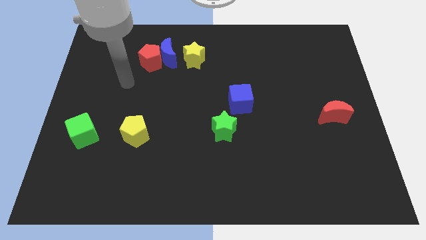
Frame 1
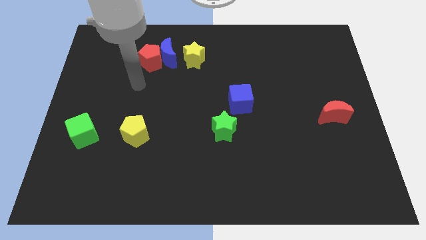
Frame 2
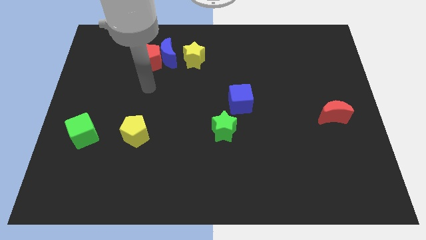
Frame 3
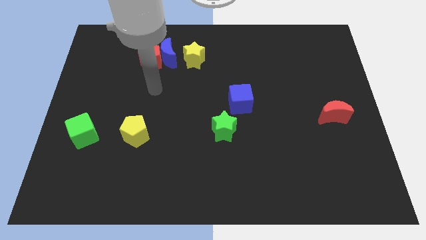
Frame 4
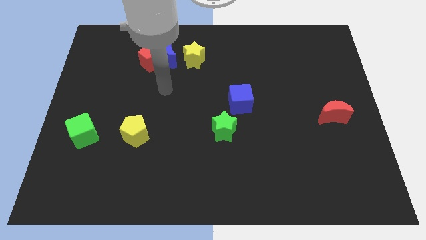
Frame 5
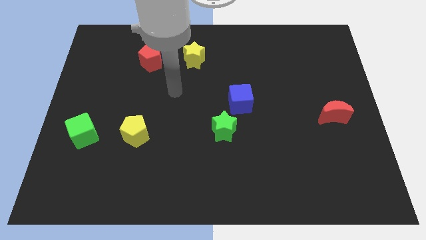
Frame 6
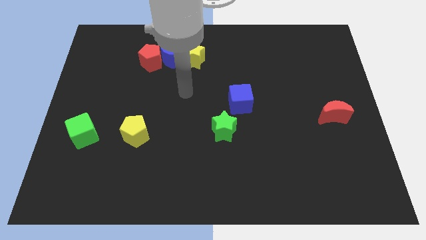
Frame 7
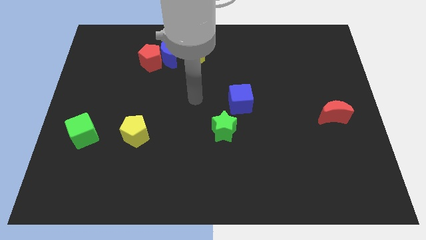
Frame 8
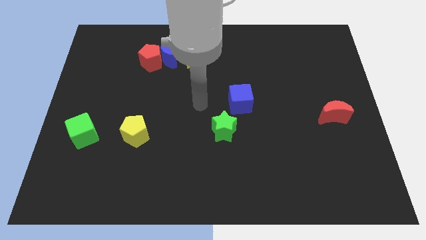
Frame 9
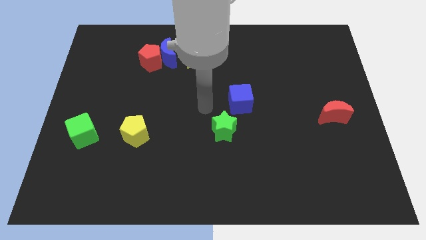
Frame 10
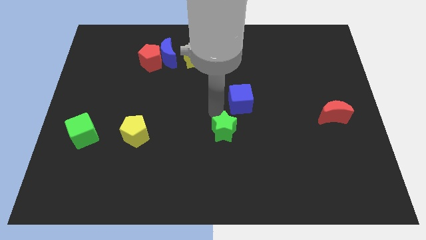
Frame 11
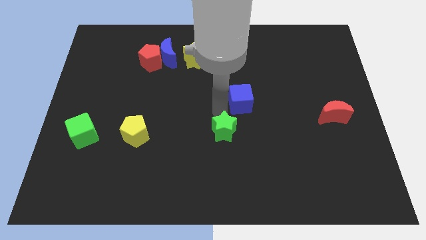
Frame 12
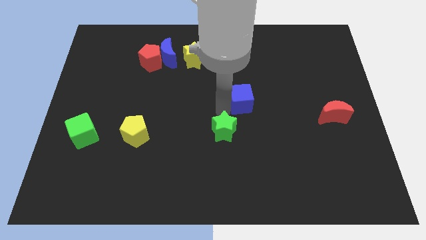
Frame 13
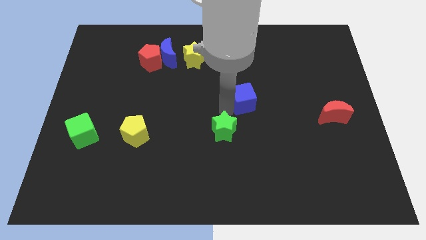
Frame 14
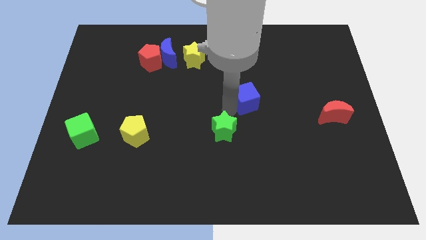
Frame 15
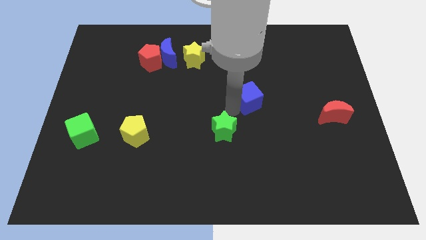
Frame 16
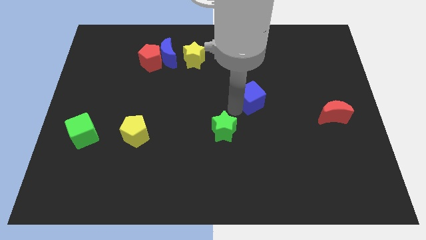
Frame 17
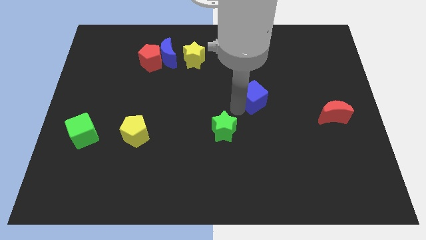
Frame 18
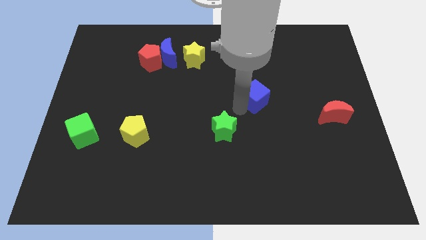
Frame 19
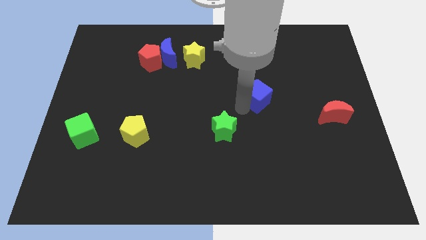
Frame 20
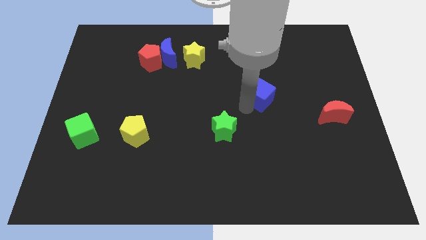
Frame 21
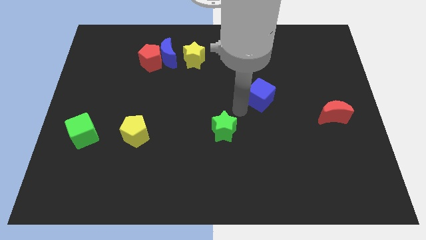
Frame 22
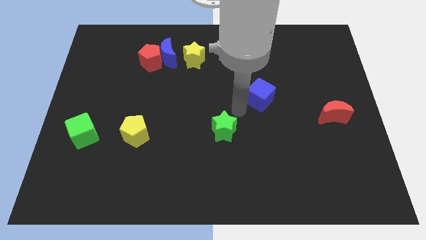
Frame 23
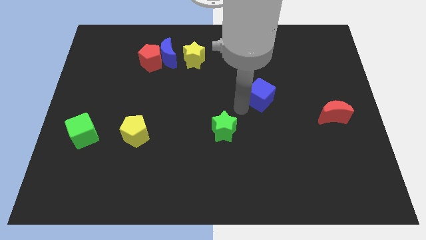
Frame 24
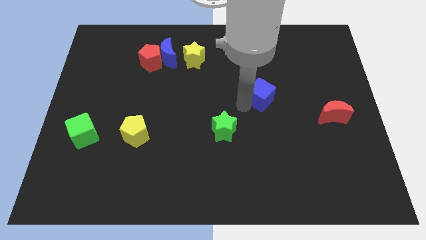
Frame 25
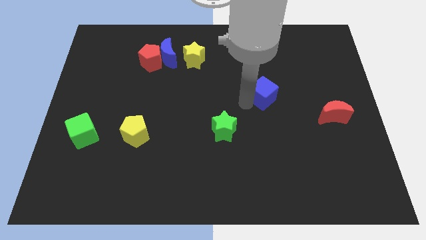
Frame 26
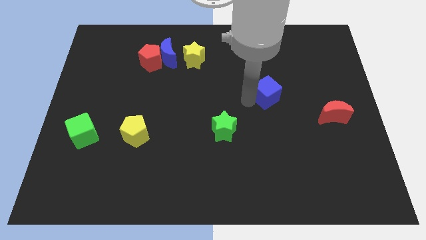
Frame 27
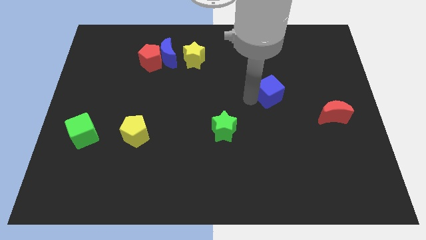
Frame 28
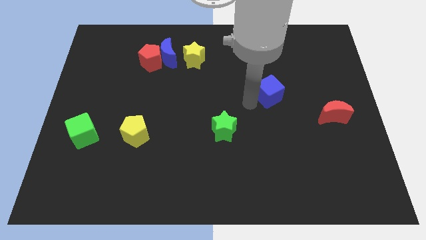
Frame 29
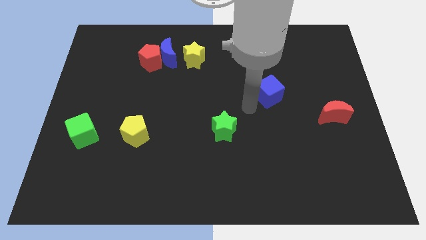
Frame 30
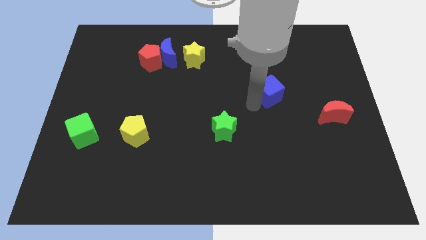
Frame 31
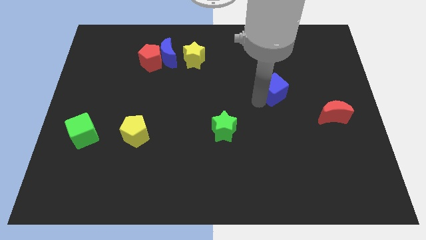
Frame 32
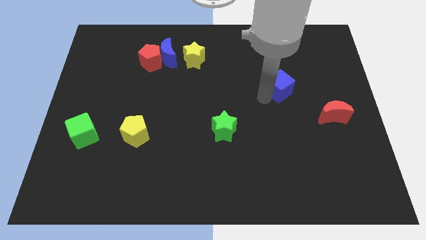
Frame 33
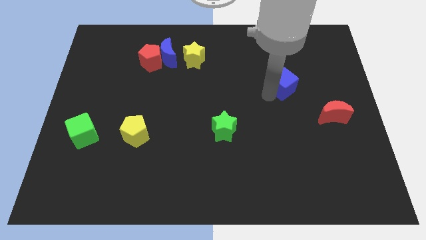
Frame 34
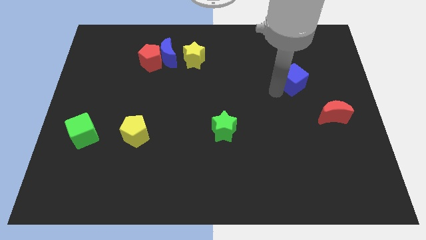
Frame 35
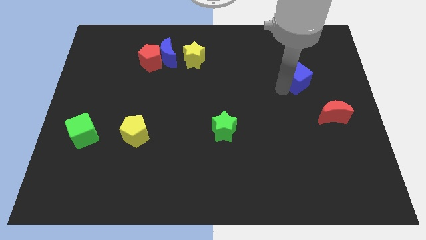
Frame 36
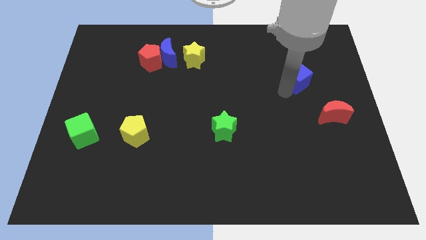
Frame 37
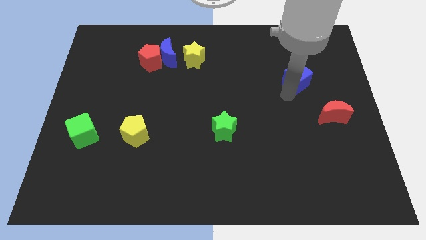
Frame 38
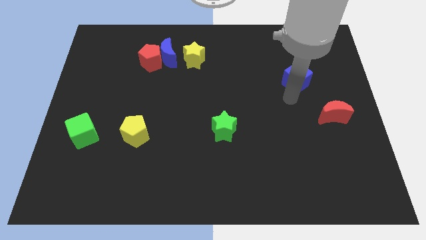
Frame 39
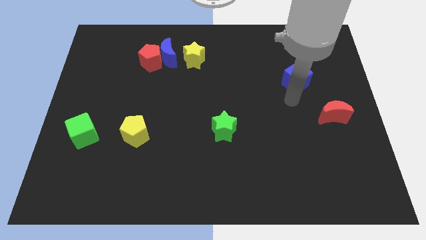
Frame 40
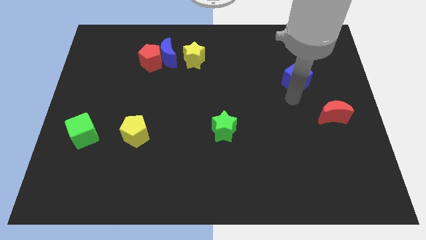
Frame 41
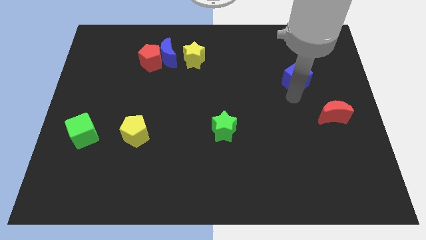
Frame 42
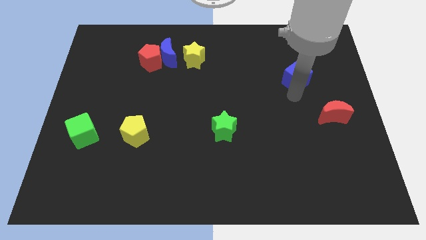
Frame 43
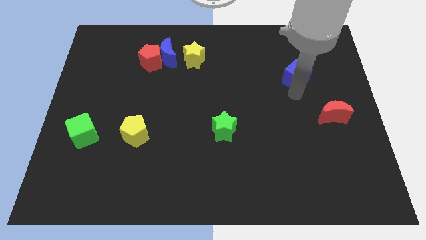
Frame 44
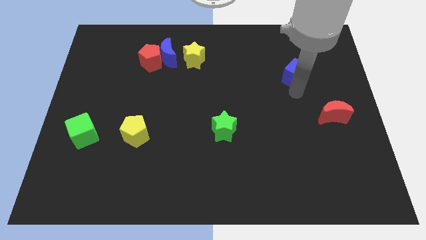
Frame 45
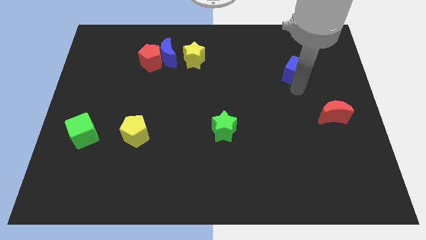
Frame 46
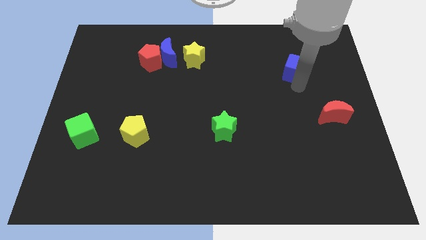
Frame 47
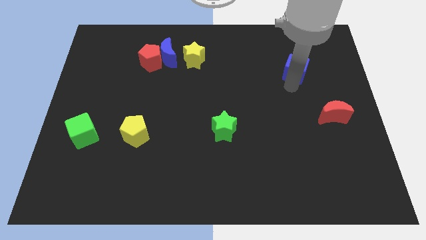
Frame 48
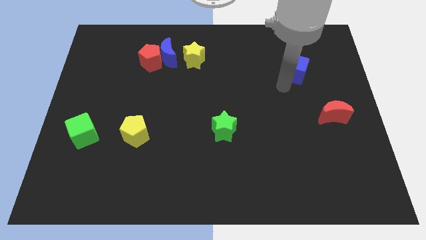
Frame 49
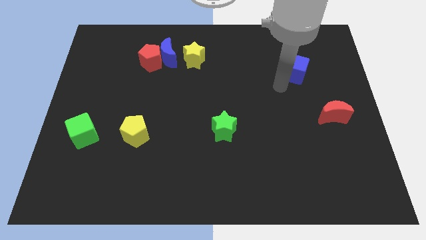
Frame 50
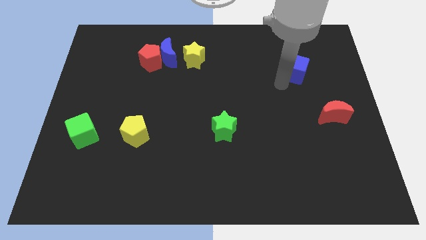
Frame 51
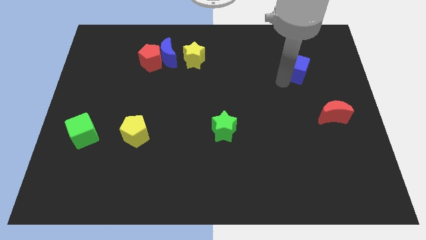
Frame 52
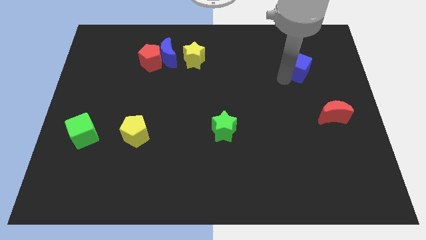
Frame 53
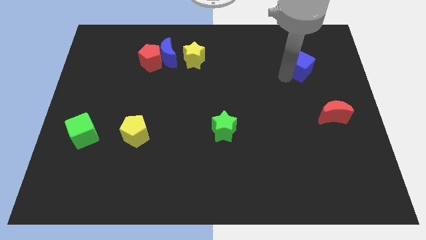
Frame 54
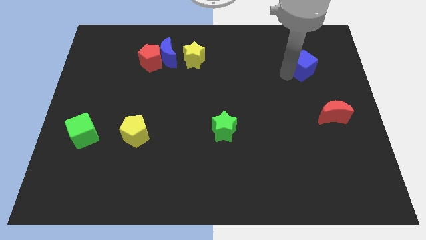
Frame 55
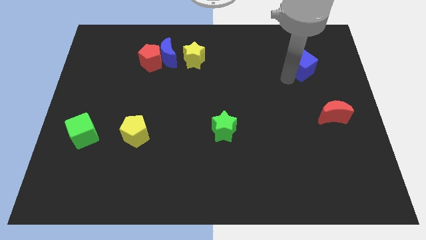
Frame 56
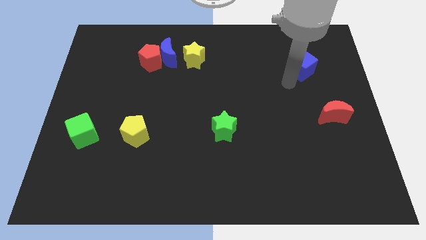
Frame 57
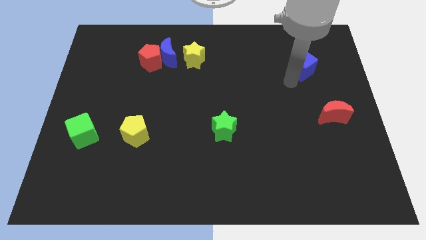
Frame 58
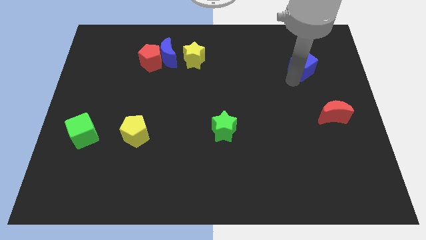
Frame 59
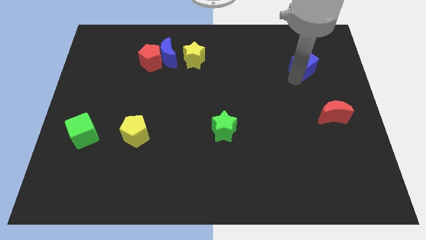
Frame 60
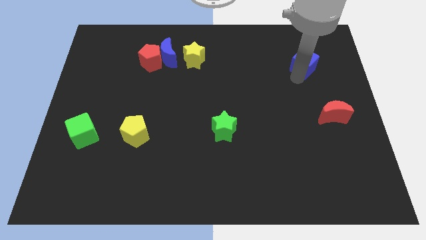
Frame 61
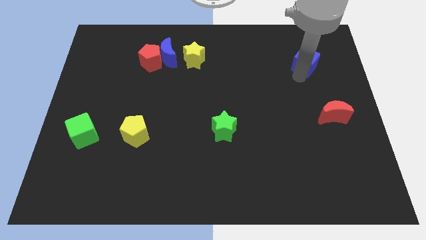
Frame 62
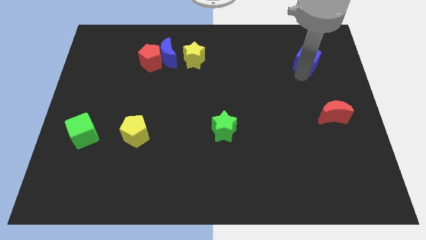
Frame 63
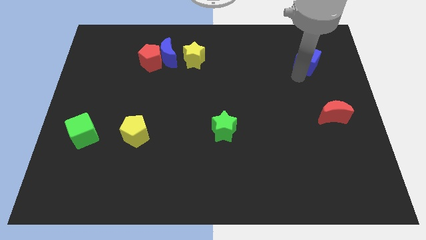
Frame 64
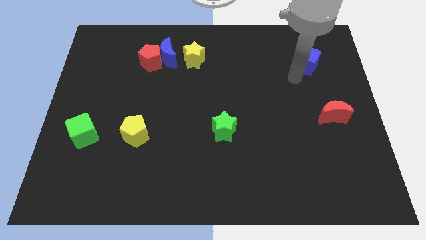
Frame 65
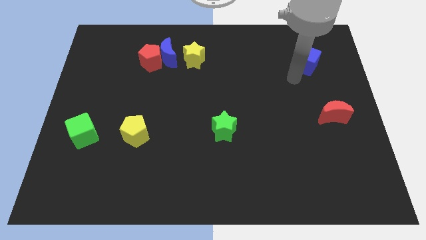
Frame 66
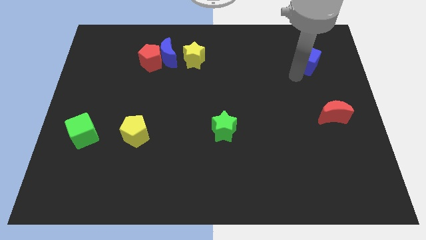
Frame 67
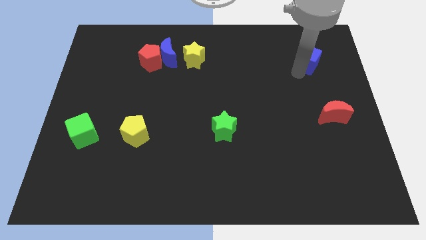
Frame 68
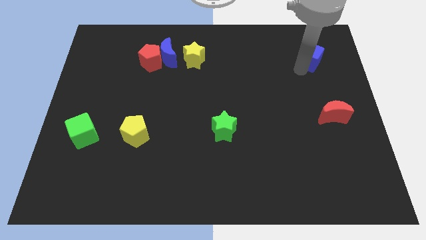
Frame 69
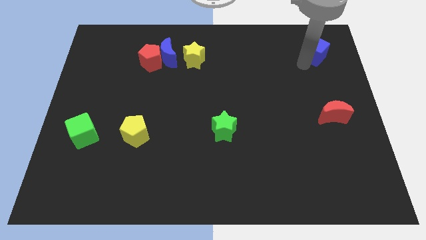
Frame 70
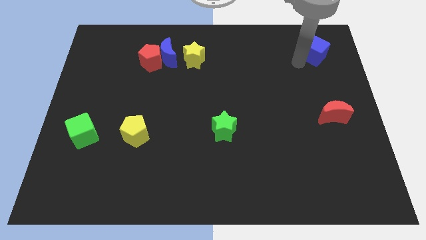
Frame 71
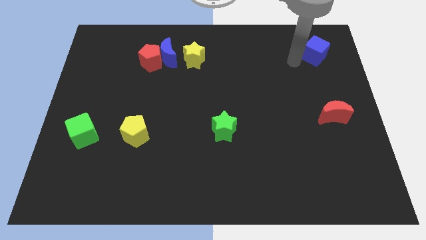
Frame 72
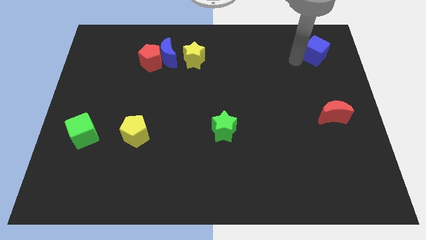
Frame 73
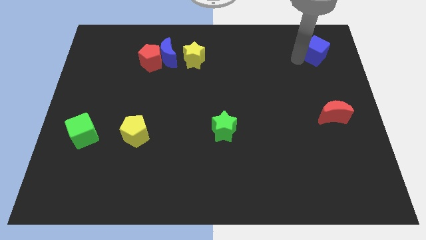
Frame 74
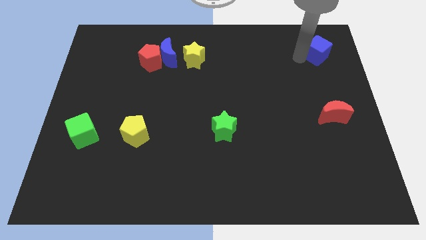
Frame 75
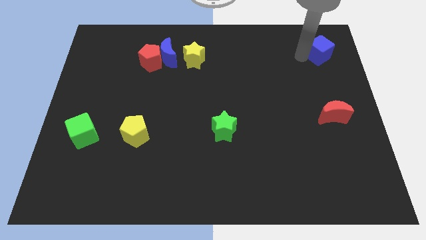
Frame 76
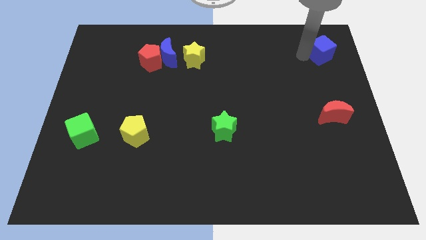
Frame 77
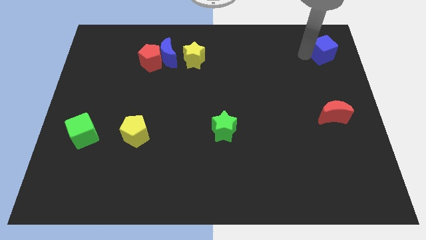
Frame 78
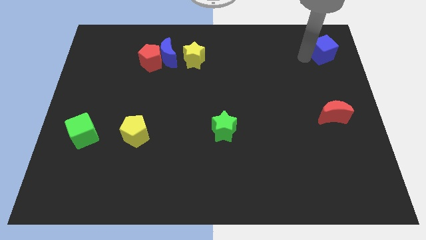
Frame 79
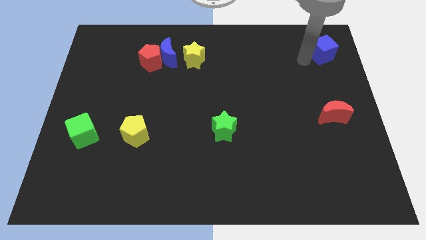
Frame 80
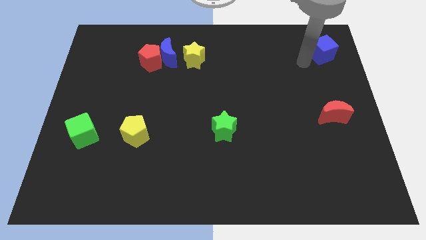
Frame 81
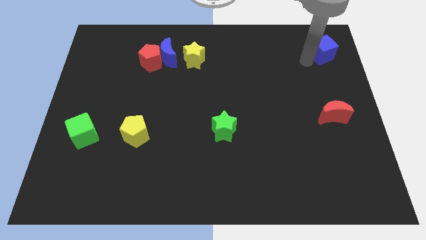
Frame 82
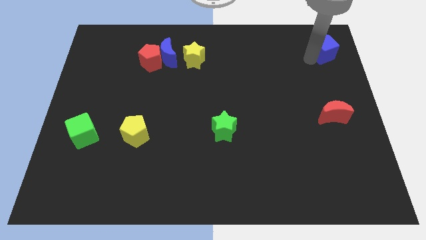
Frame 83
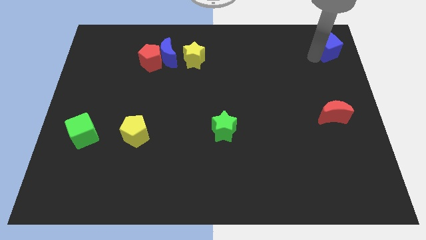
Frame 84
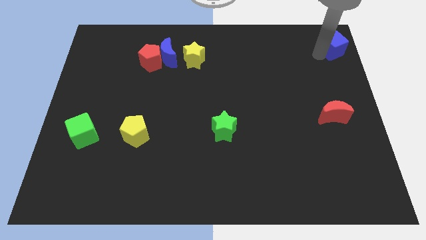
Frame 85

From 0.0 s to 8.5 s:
move the blue cube to the top right
